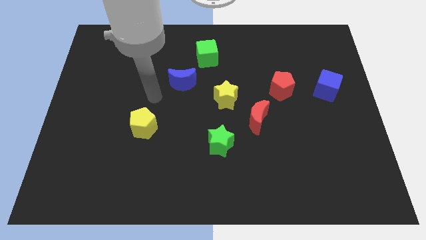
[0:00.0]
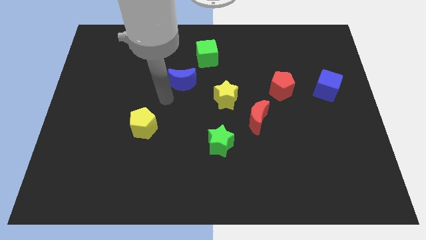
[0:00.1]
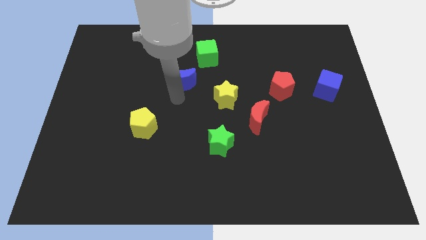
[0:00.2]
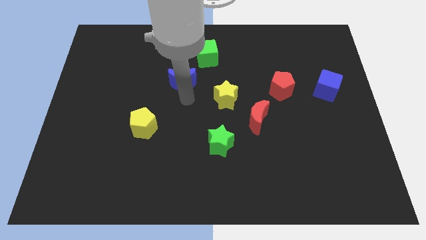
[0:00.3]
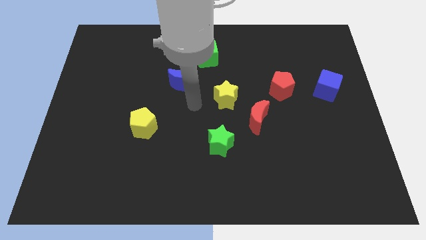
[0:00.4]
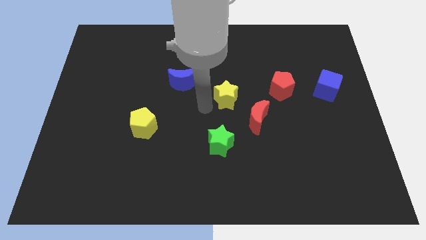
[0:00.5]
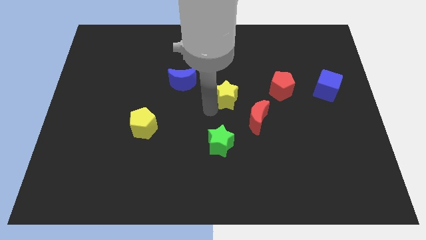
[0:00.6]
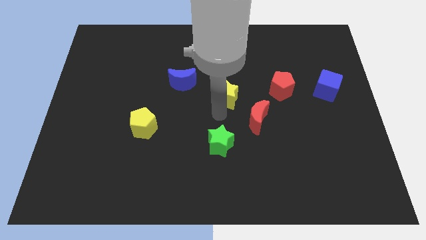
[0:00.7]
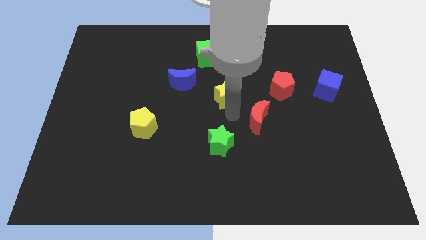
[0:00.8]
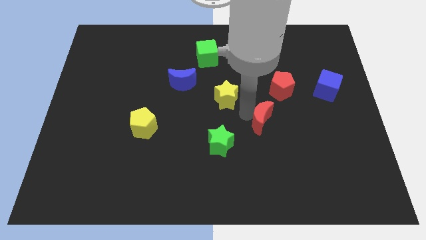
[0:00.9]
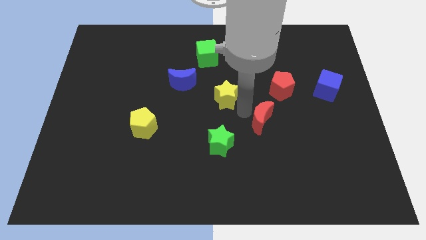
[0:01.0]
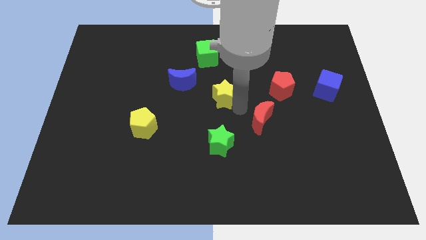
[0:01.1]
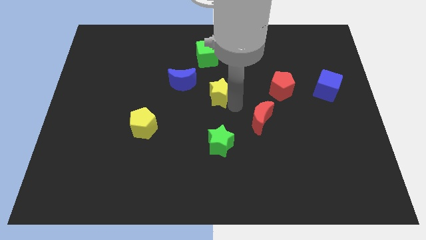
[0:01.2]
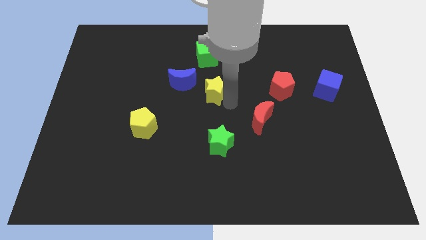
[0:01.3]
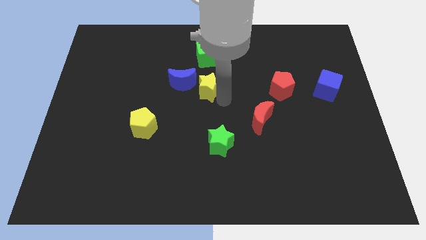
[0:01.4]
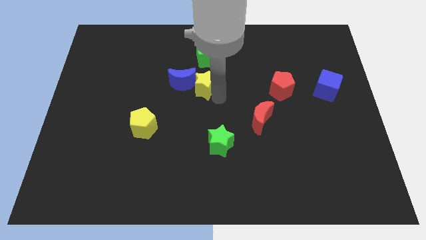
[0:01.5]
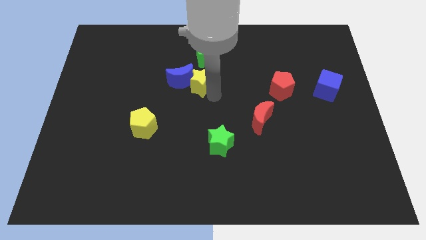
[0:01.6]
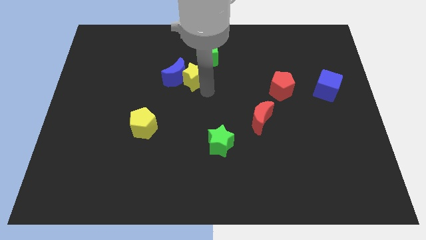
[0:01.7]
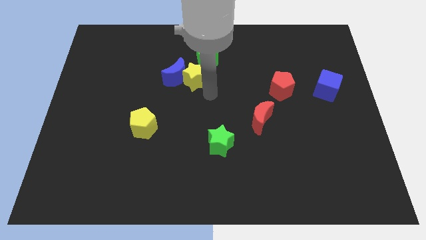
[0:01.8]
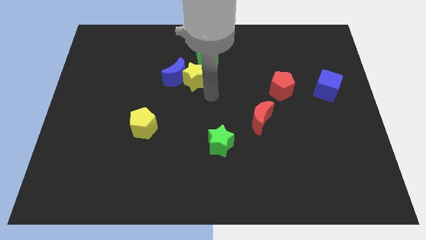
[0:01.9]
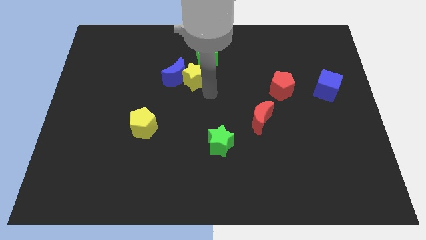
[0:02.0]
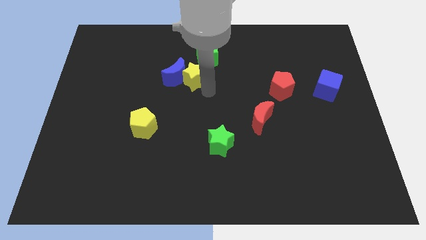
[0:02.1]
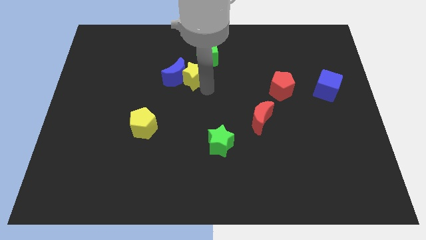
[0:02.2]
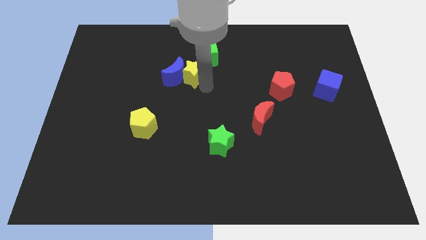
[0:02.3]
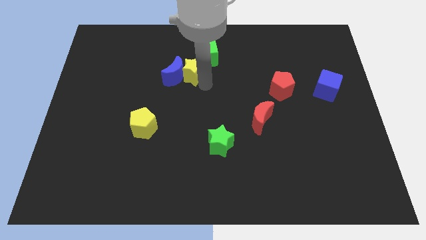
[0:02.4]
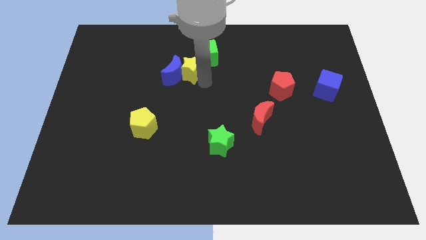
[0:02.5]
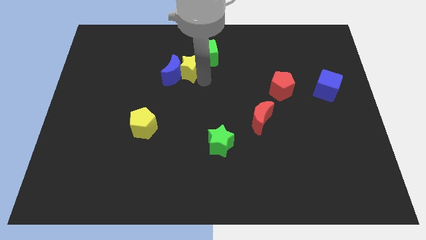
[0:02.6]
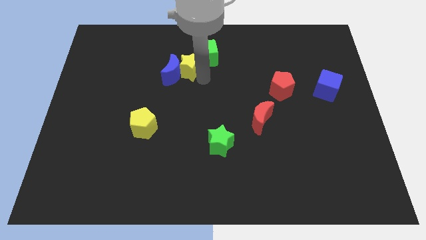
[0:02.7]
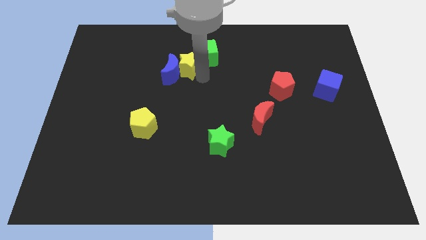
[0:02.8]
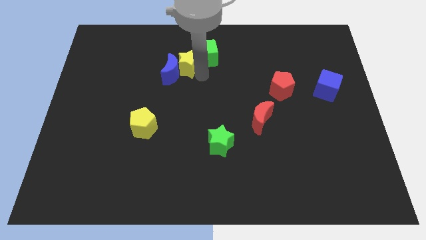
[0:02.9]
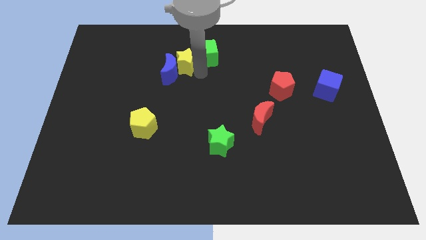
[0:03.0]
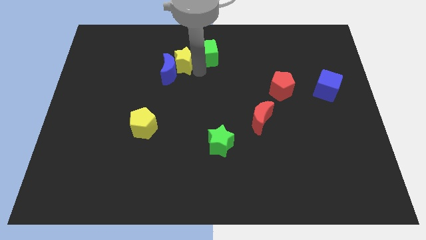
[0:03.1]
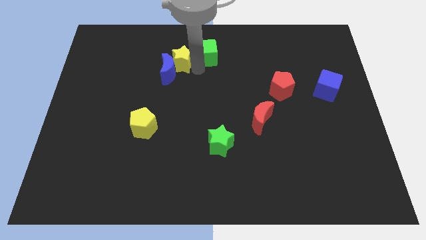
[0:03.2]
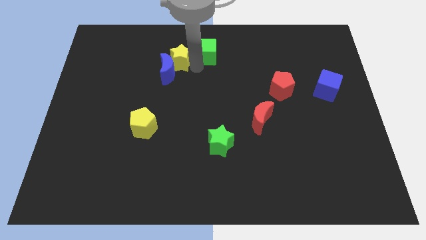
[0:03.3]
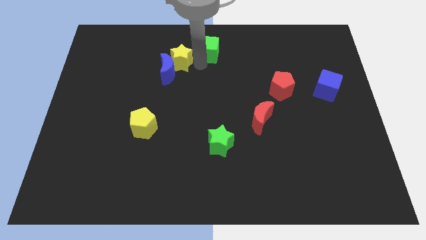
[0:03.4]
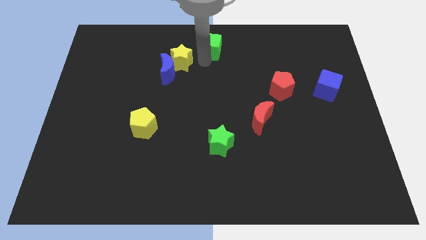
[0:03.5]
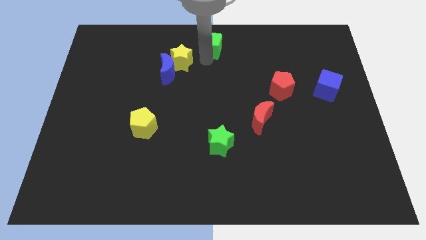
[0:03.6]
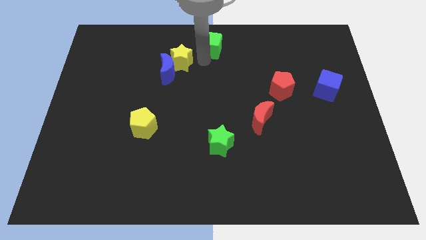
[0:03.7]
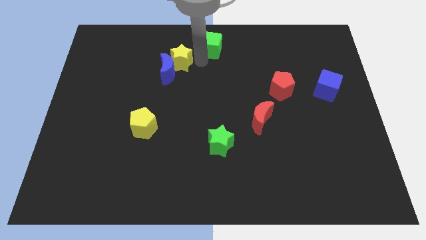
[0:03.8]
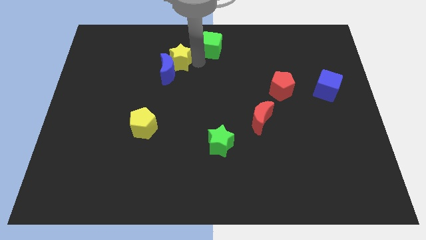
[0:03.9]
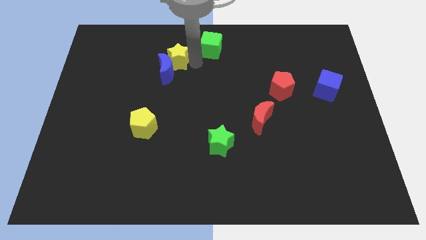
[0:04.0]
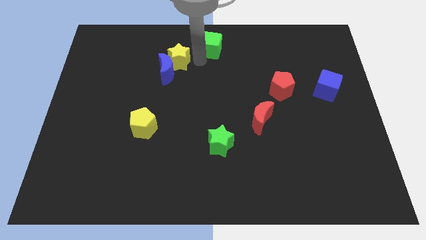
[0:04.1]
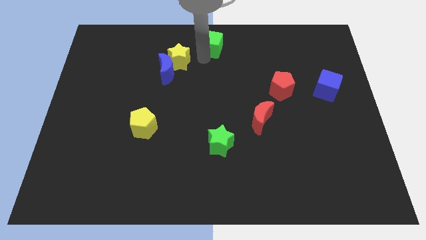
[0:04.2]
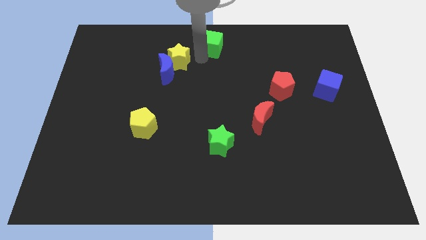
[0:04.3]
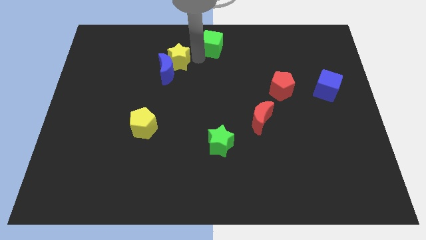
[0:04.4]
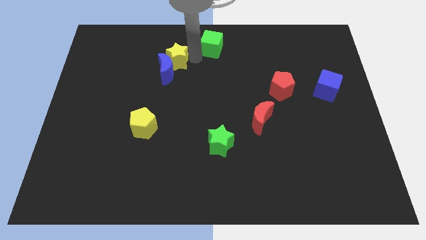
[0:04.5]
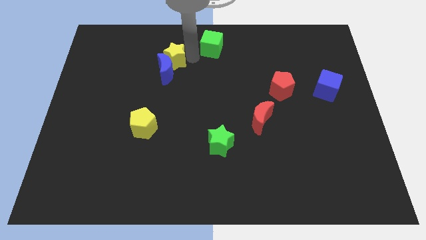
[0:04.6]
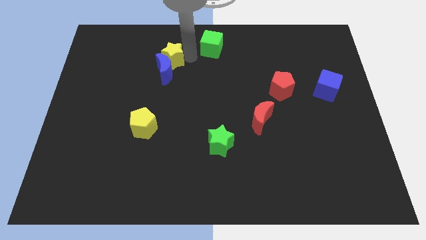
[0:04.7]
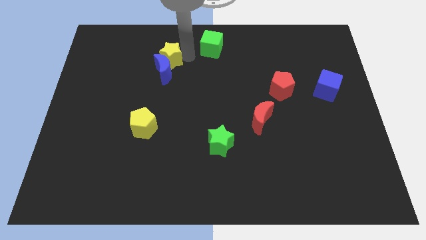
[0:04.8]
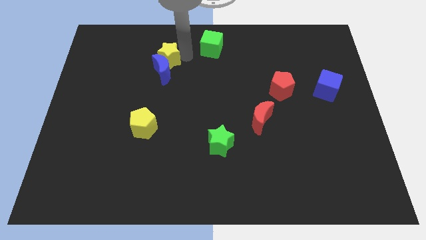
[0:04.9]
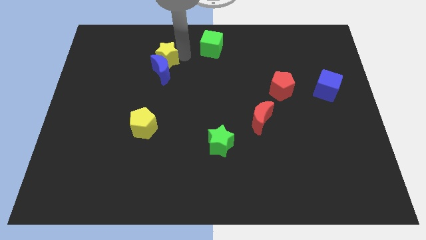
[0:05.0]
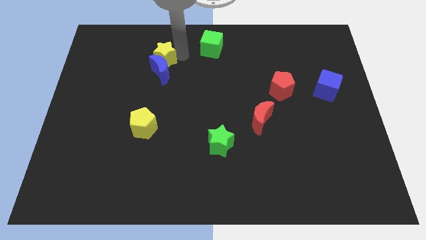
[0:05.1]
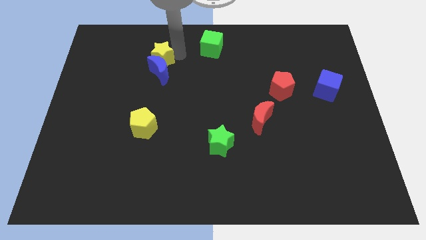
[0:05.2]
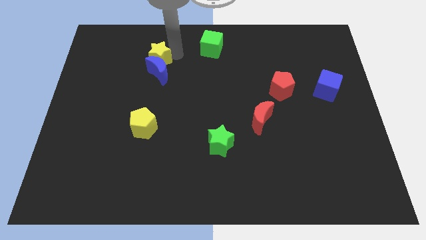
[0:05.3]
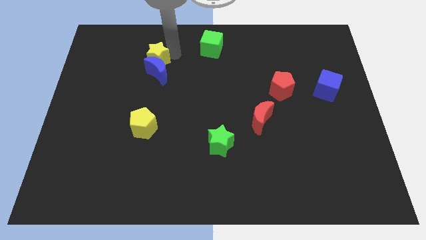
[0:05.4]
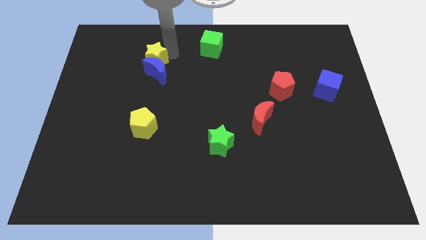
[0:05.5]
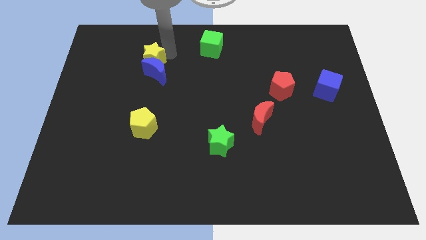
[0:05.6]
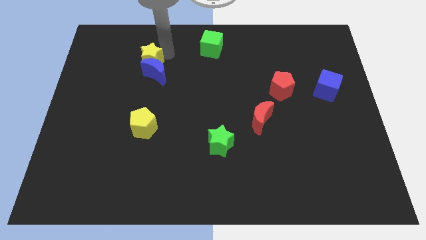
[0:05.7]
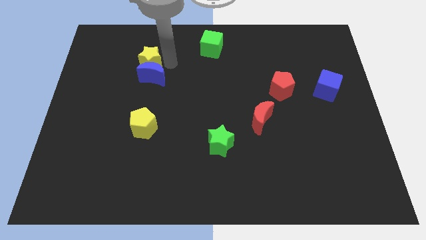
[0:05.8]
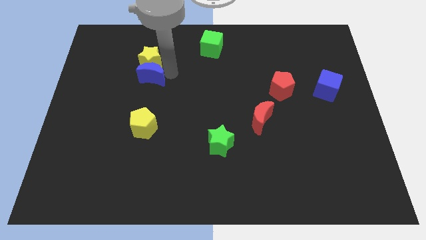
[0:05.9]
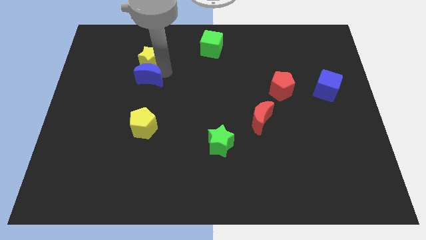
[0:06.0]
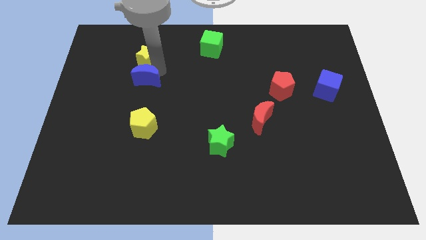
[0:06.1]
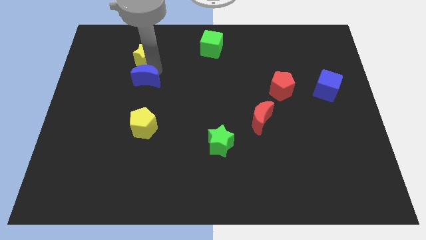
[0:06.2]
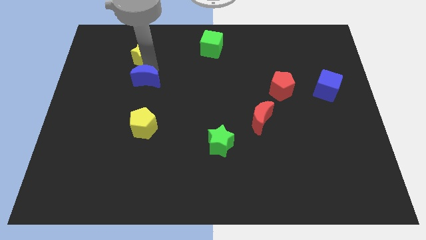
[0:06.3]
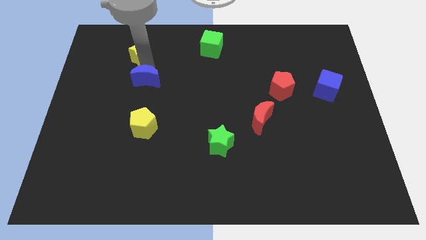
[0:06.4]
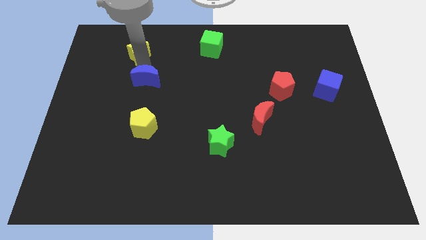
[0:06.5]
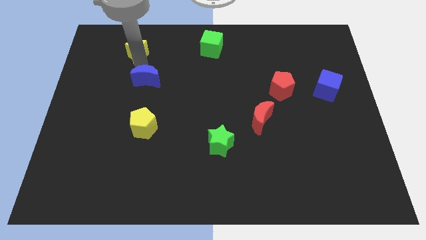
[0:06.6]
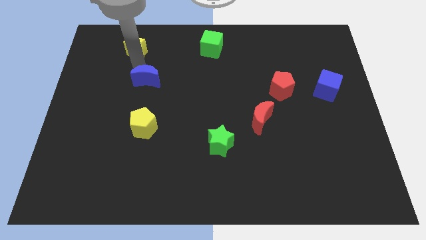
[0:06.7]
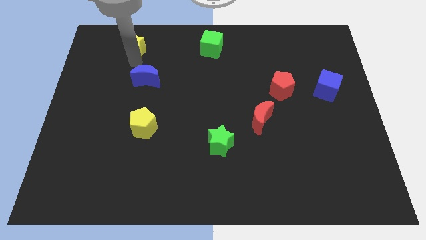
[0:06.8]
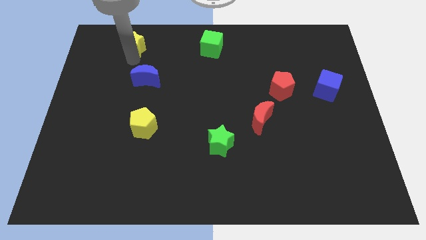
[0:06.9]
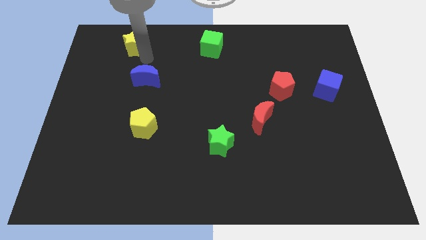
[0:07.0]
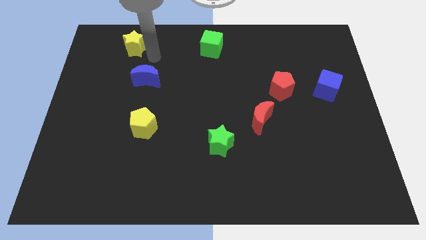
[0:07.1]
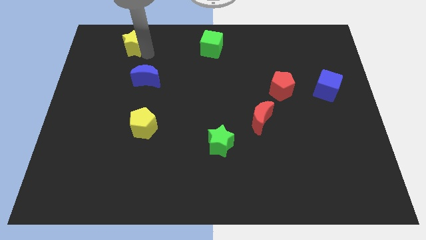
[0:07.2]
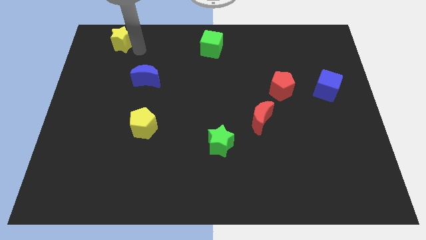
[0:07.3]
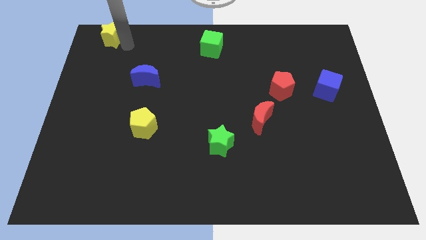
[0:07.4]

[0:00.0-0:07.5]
move the yellow star to the top left
